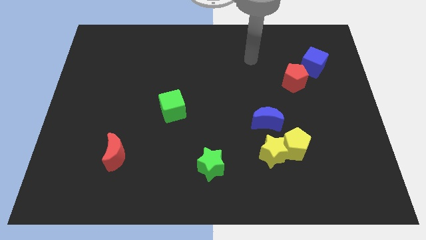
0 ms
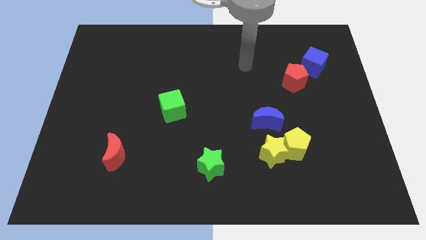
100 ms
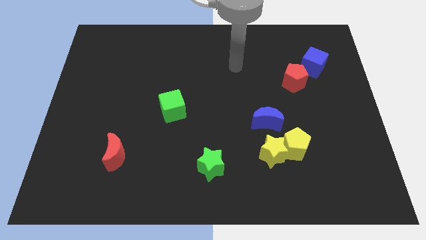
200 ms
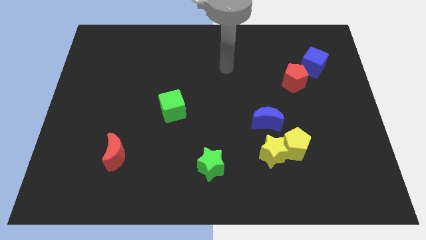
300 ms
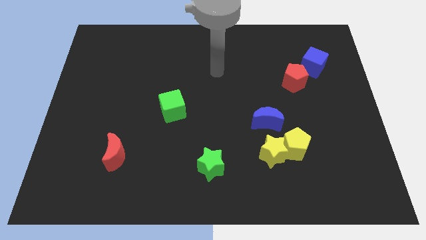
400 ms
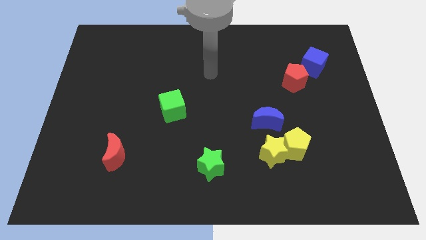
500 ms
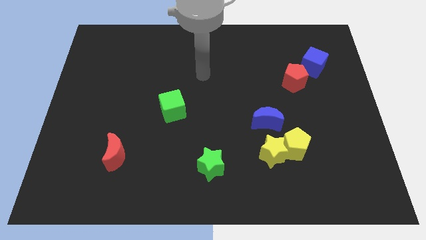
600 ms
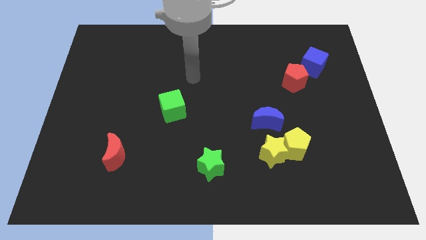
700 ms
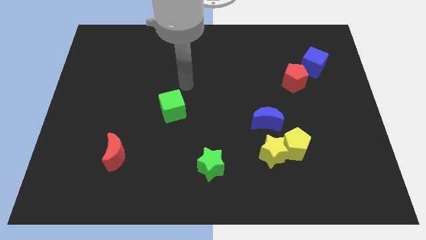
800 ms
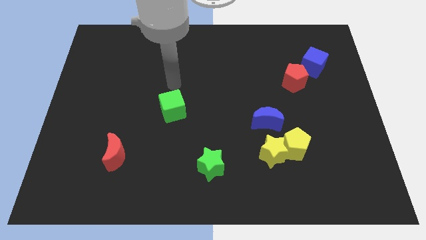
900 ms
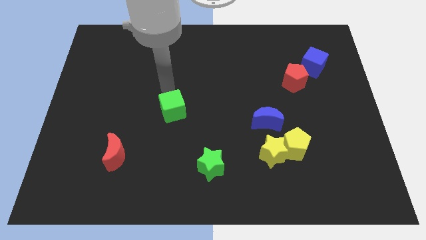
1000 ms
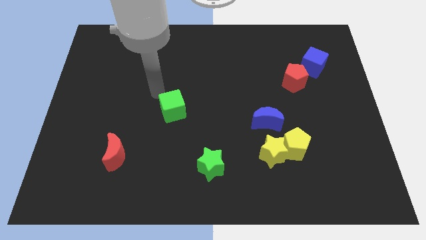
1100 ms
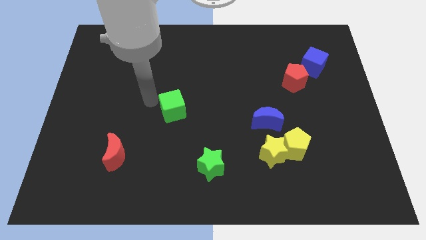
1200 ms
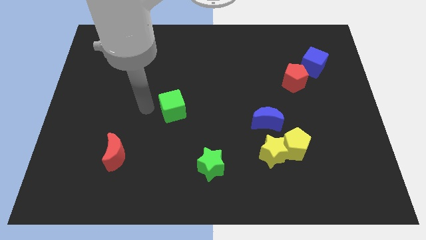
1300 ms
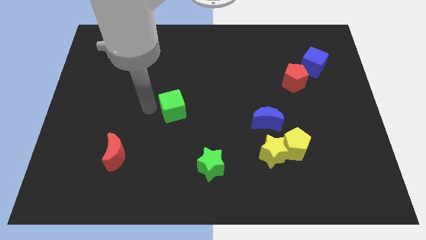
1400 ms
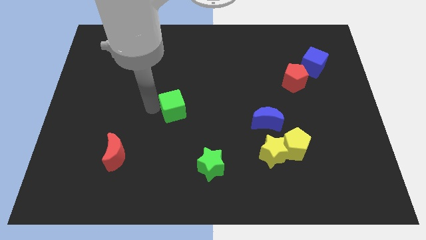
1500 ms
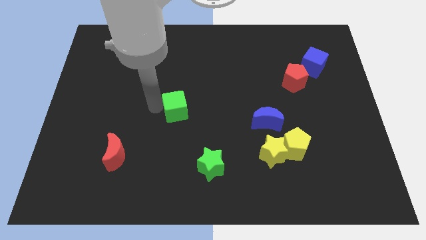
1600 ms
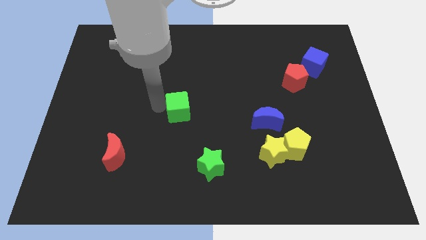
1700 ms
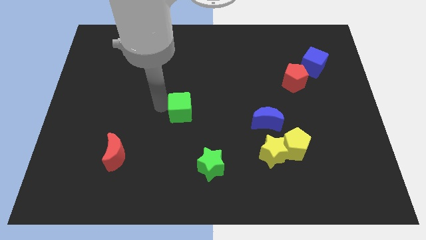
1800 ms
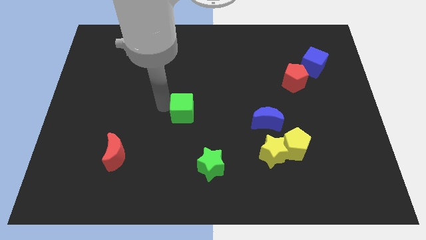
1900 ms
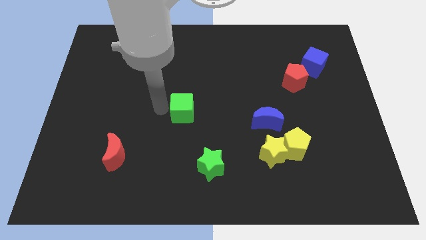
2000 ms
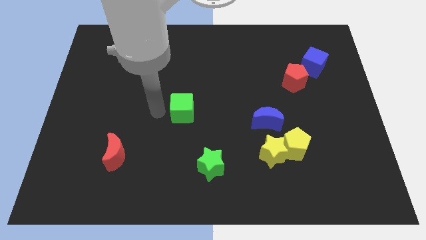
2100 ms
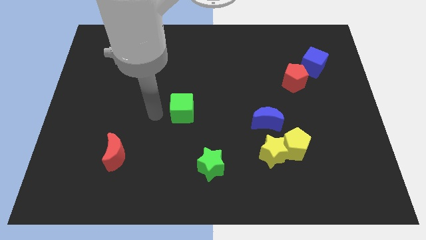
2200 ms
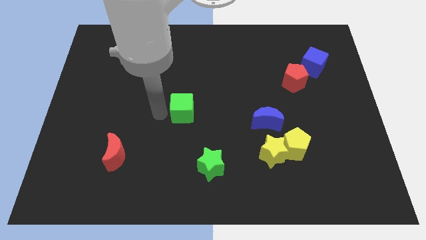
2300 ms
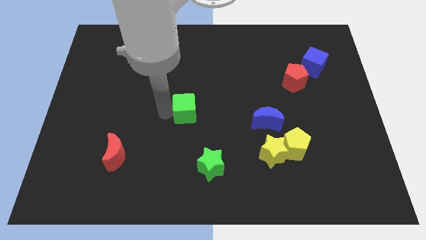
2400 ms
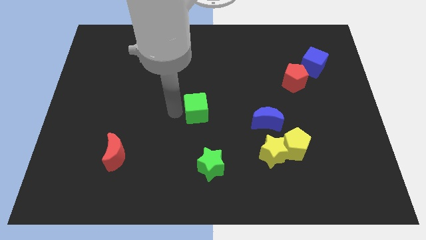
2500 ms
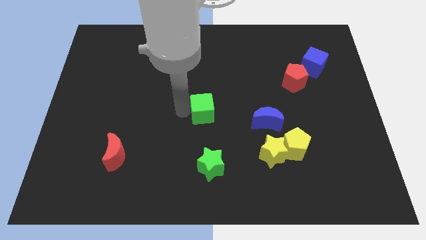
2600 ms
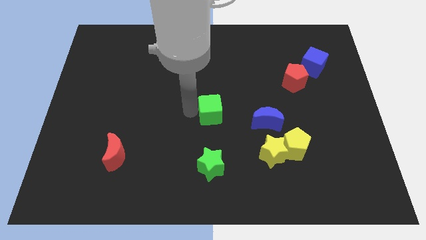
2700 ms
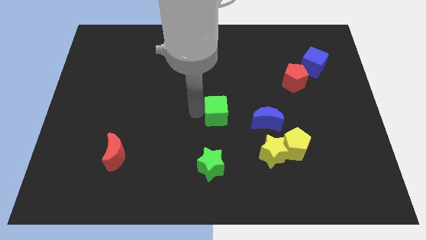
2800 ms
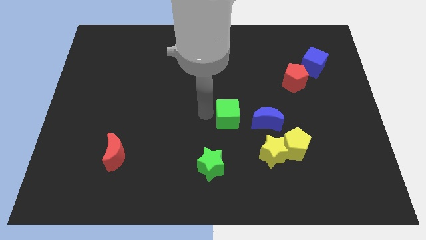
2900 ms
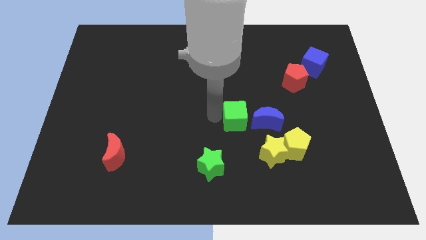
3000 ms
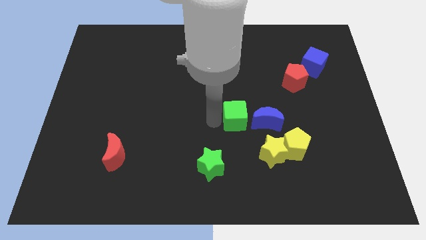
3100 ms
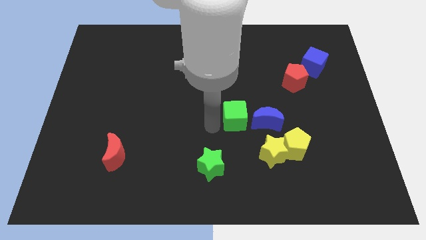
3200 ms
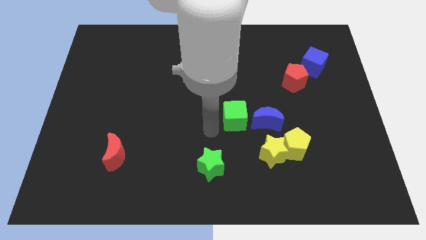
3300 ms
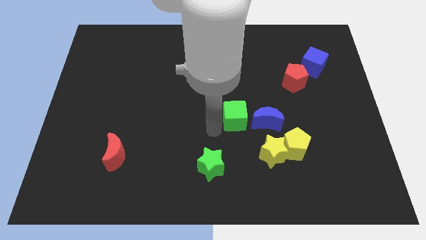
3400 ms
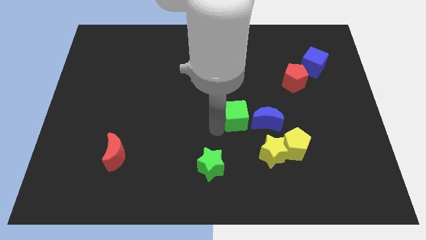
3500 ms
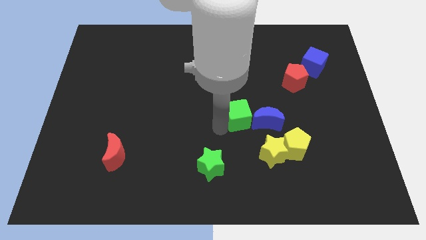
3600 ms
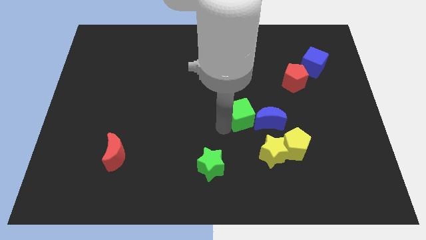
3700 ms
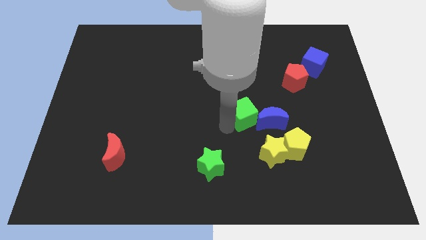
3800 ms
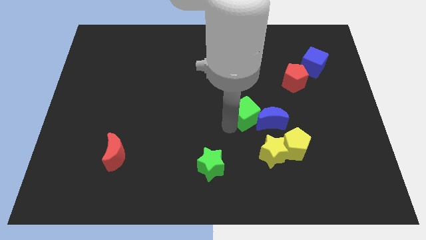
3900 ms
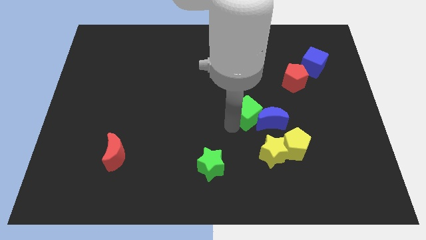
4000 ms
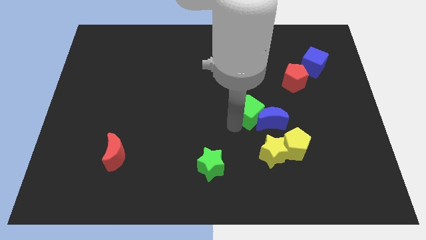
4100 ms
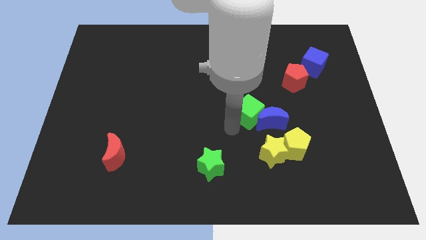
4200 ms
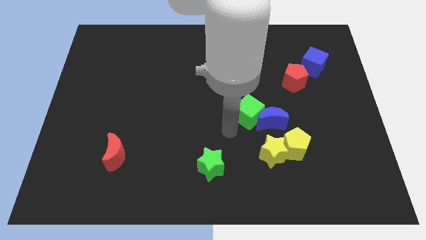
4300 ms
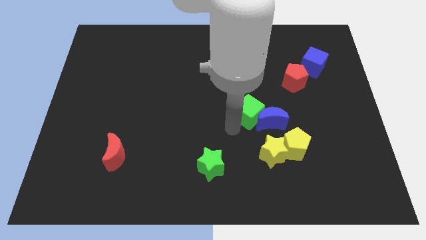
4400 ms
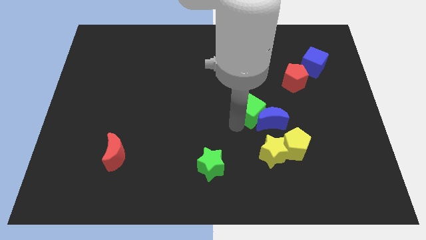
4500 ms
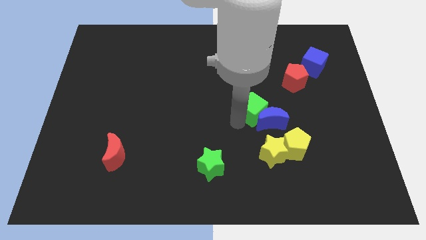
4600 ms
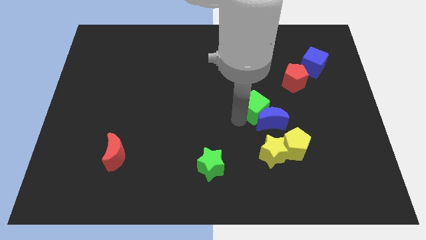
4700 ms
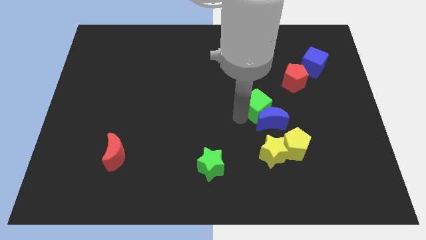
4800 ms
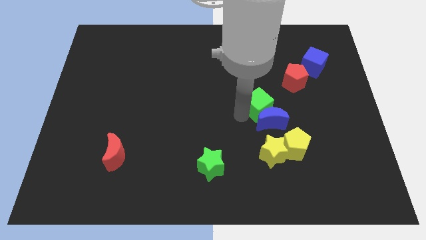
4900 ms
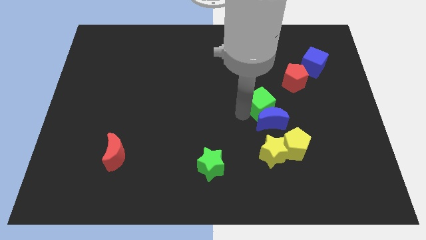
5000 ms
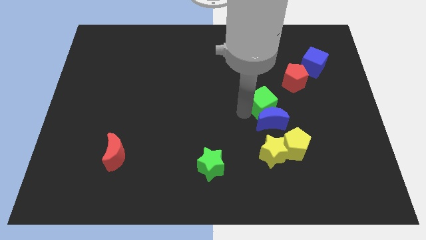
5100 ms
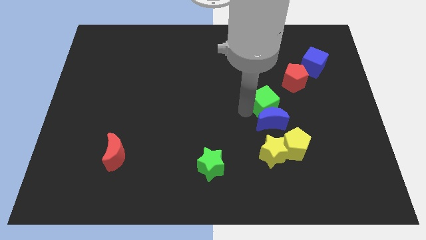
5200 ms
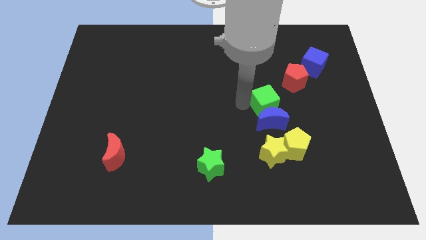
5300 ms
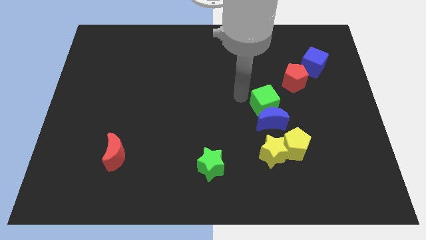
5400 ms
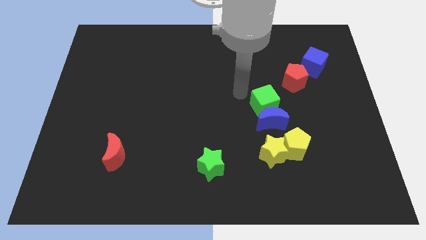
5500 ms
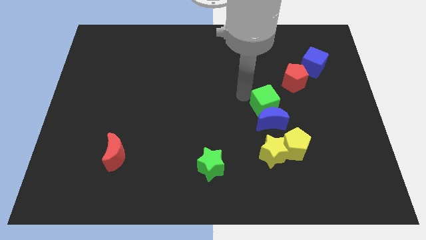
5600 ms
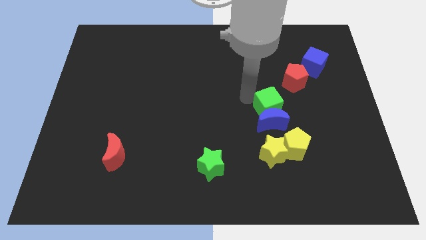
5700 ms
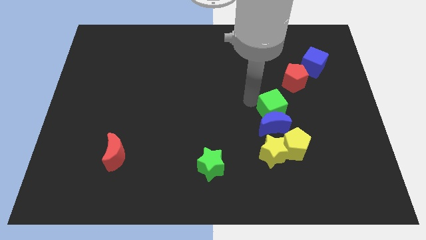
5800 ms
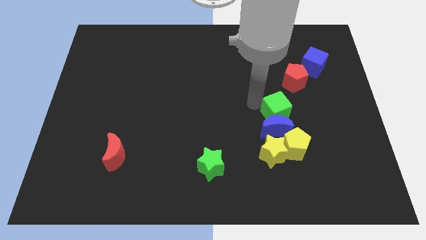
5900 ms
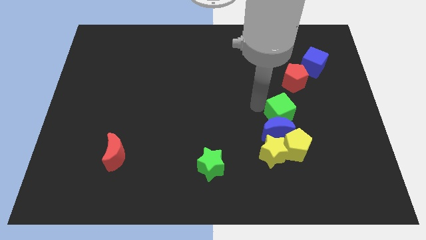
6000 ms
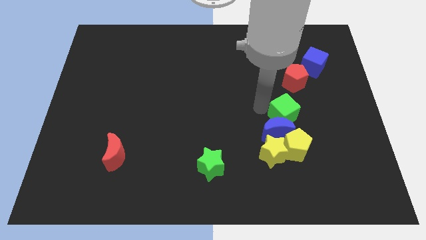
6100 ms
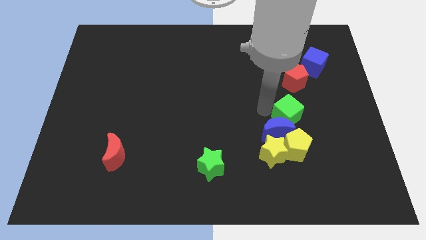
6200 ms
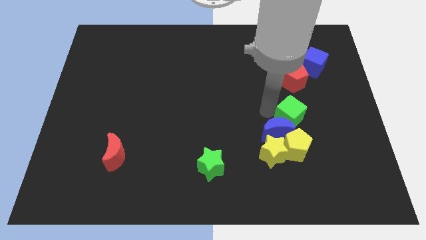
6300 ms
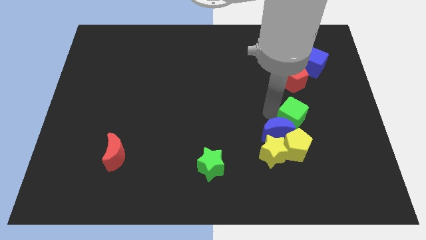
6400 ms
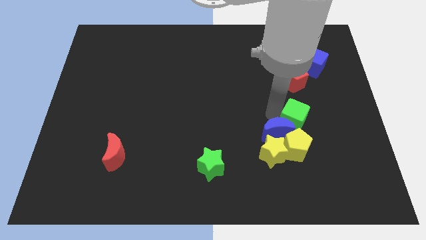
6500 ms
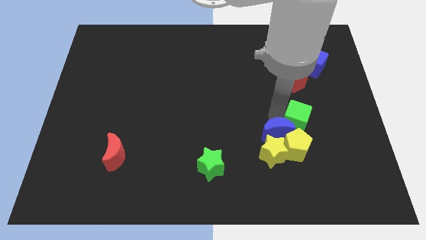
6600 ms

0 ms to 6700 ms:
push the green cube to the top right of the yellow pentagon

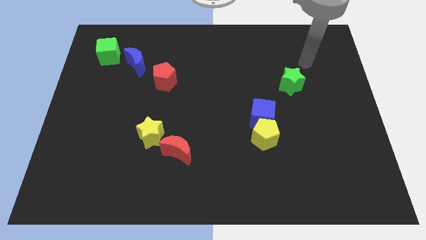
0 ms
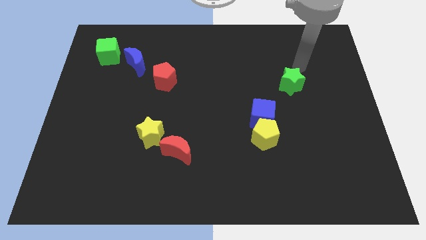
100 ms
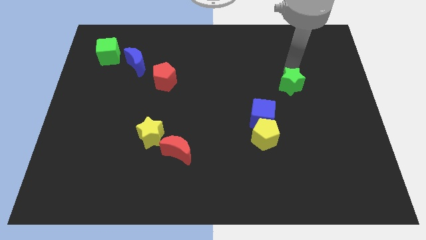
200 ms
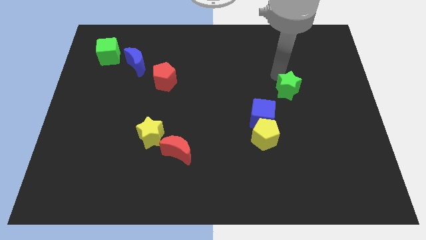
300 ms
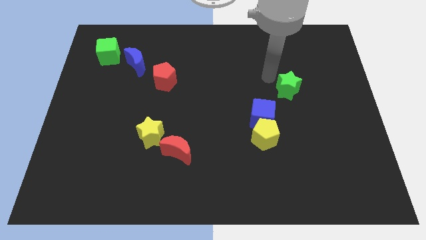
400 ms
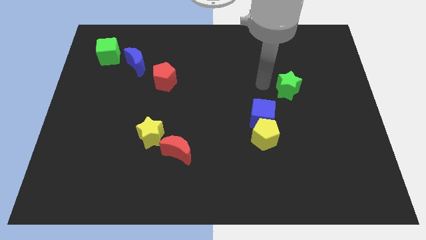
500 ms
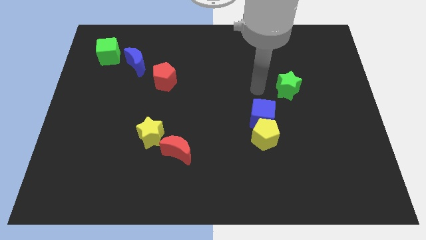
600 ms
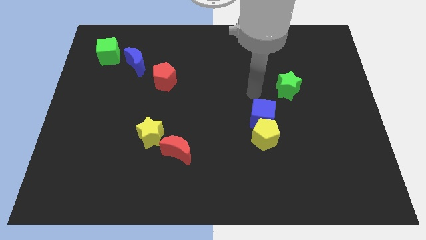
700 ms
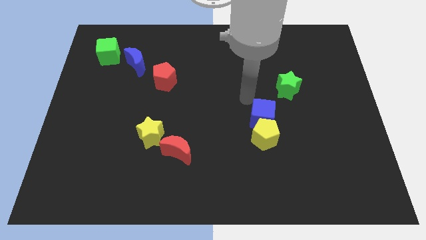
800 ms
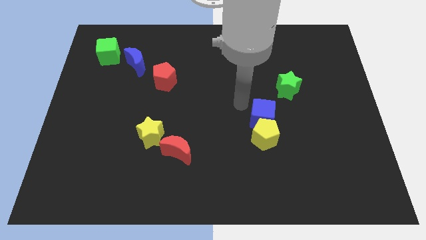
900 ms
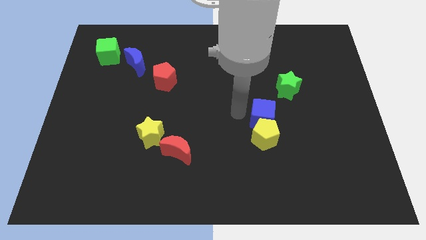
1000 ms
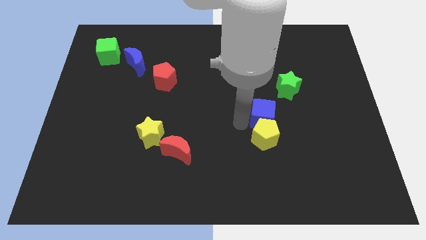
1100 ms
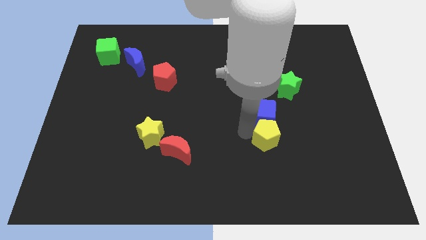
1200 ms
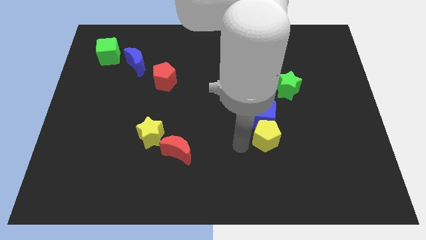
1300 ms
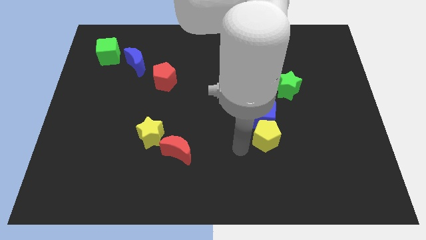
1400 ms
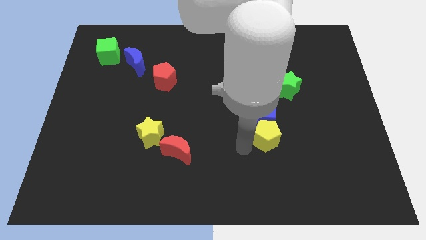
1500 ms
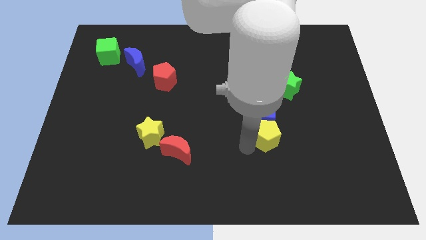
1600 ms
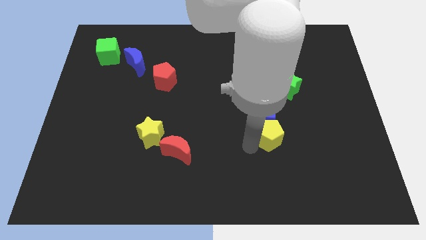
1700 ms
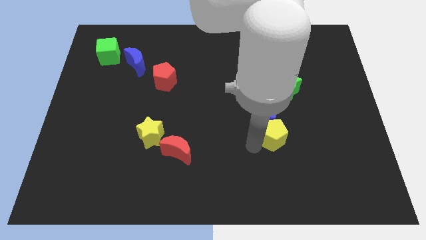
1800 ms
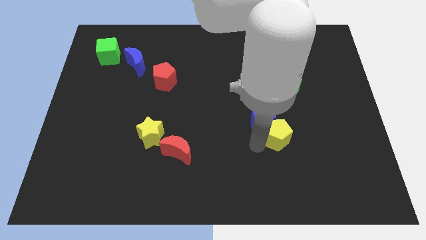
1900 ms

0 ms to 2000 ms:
slide the yellow pentagon to the bottom side of the green star
